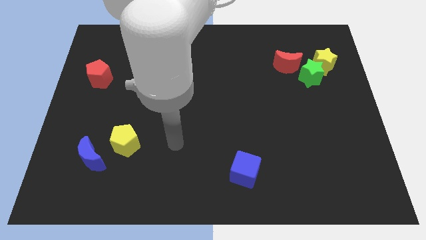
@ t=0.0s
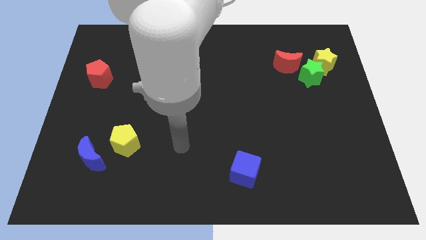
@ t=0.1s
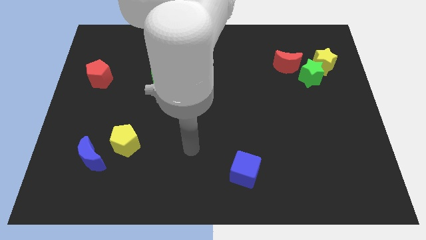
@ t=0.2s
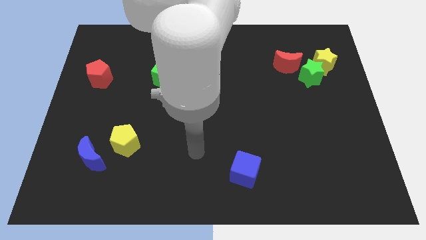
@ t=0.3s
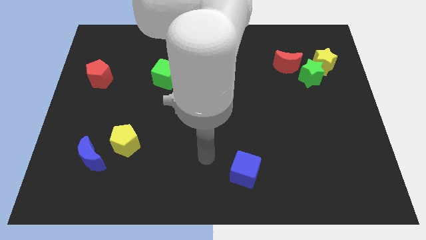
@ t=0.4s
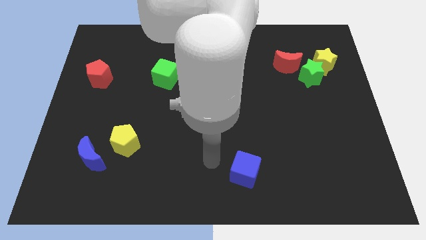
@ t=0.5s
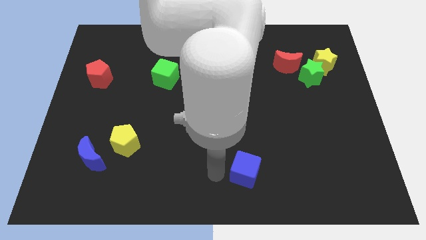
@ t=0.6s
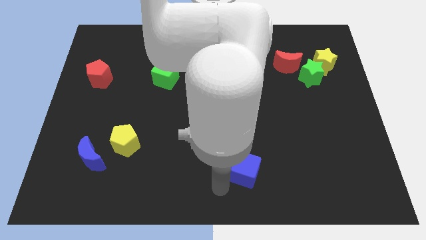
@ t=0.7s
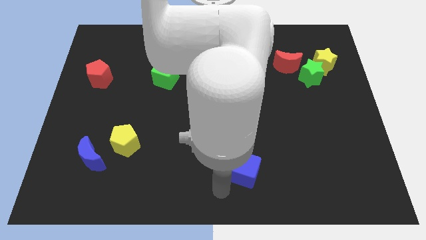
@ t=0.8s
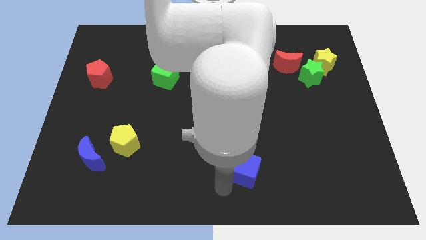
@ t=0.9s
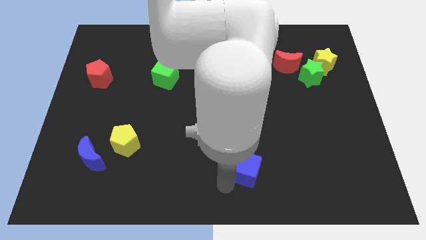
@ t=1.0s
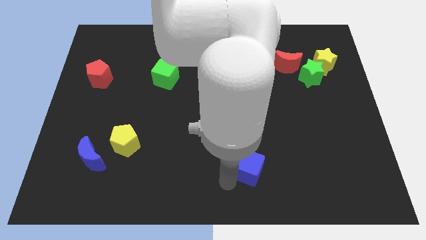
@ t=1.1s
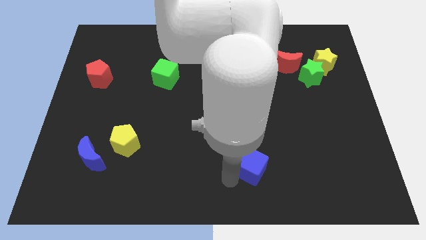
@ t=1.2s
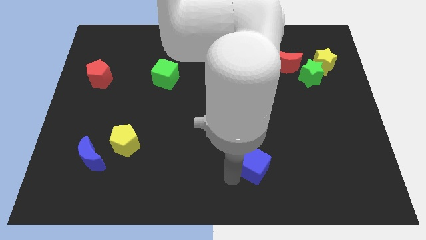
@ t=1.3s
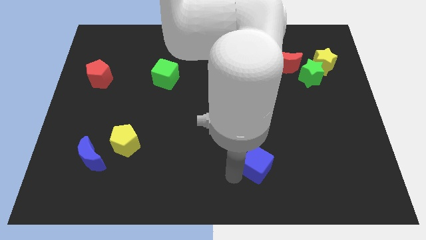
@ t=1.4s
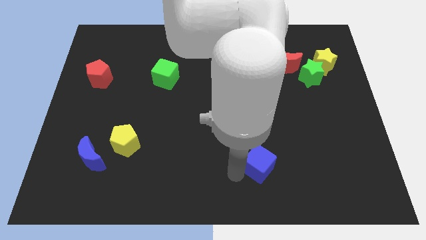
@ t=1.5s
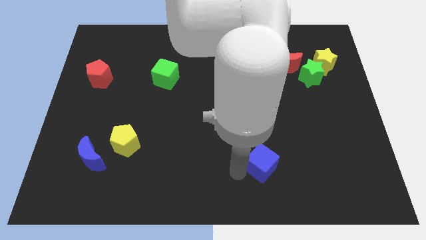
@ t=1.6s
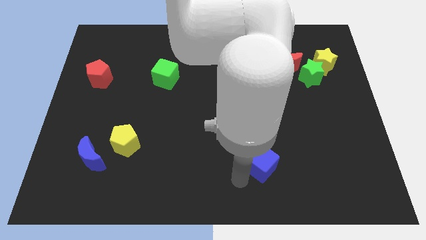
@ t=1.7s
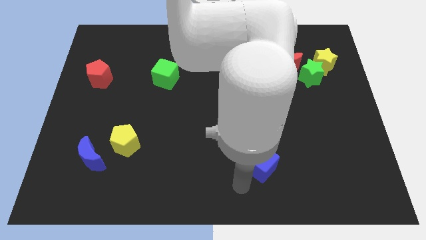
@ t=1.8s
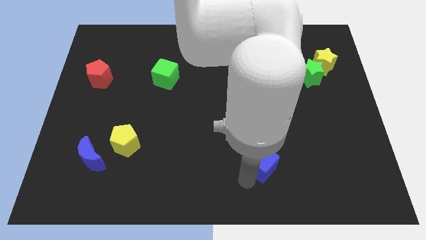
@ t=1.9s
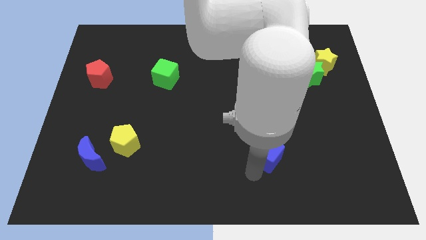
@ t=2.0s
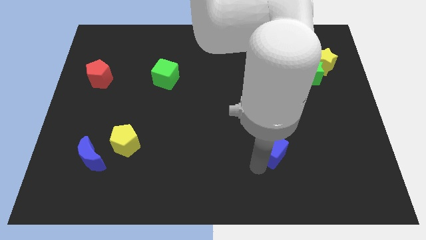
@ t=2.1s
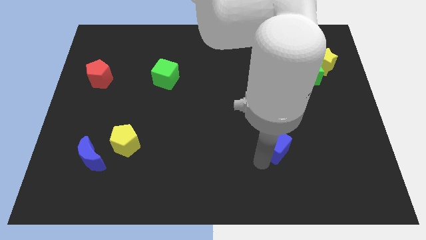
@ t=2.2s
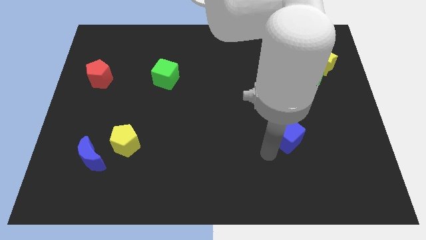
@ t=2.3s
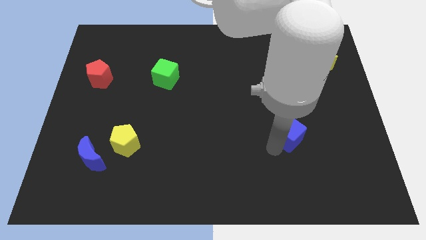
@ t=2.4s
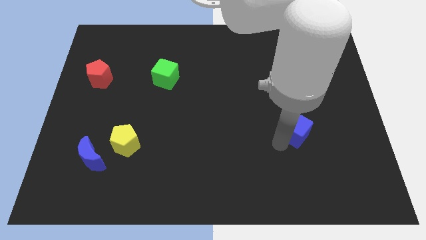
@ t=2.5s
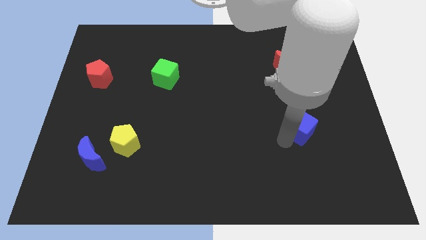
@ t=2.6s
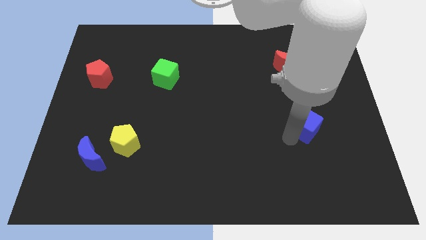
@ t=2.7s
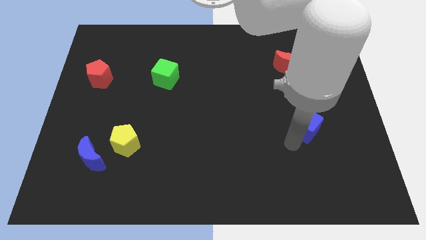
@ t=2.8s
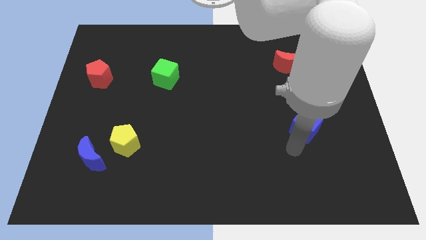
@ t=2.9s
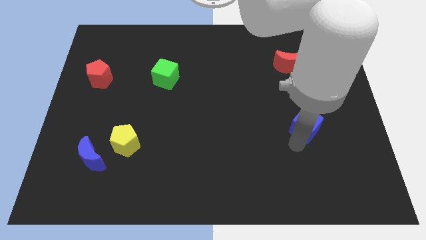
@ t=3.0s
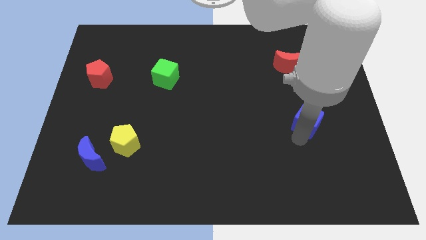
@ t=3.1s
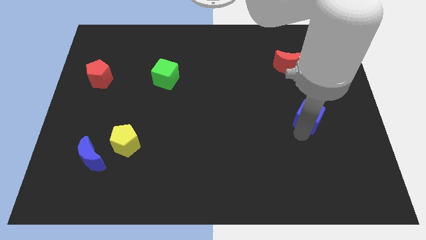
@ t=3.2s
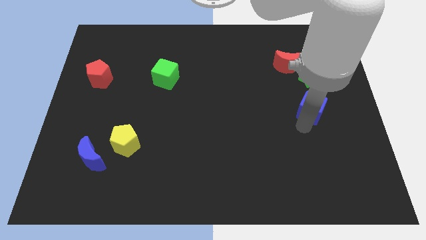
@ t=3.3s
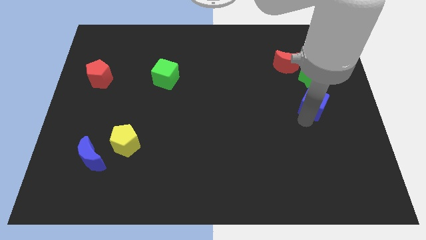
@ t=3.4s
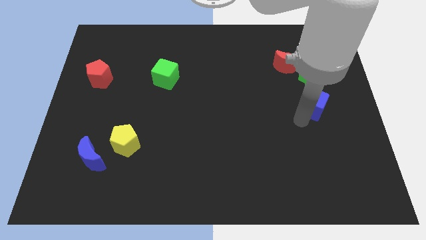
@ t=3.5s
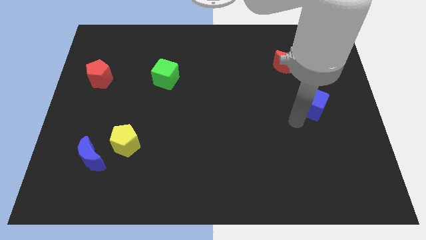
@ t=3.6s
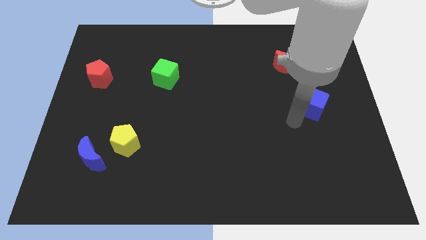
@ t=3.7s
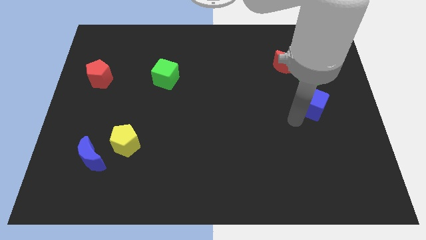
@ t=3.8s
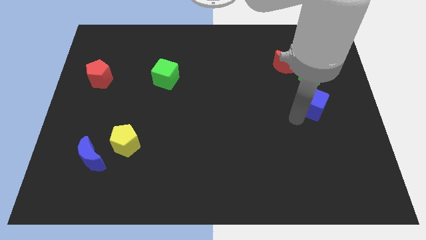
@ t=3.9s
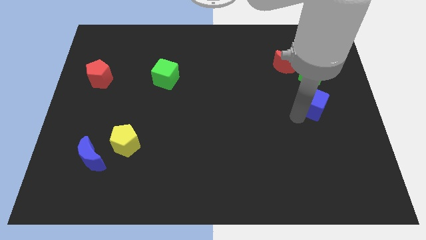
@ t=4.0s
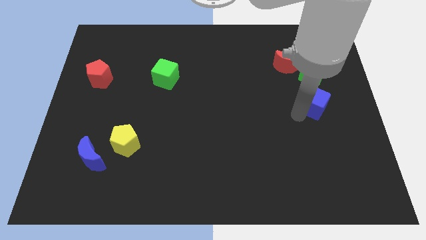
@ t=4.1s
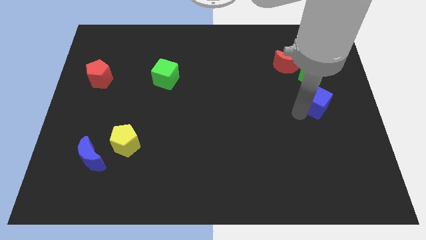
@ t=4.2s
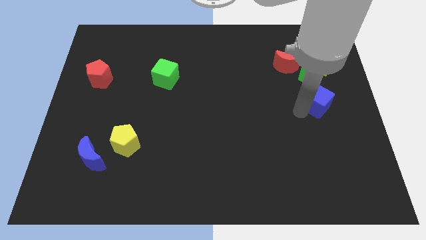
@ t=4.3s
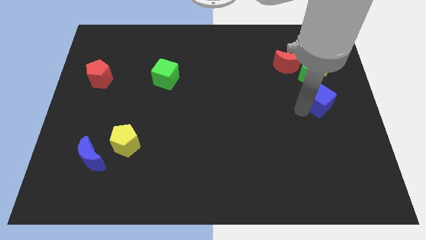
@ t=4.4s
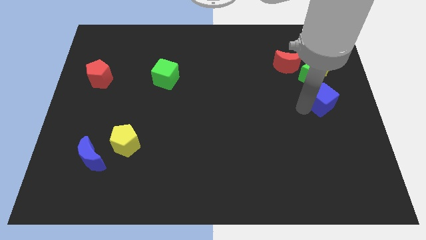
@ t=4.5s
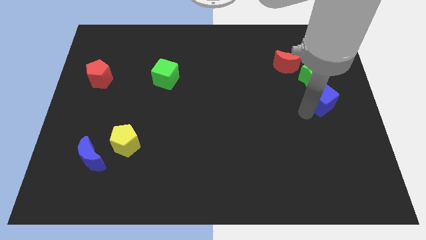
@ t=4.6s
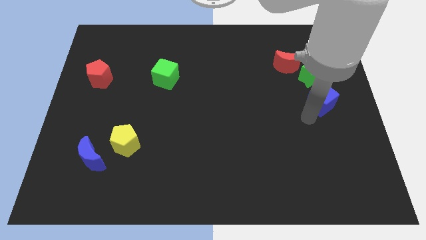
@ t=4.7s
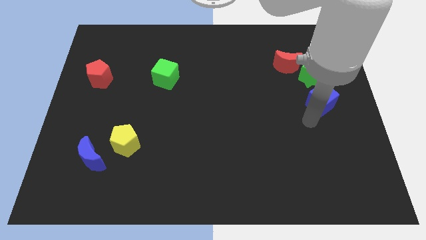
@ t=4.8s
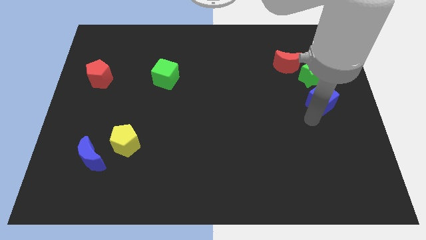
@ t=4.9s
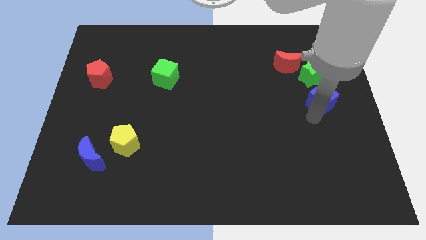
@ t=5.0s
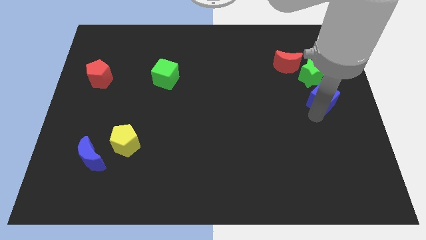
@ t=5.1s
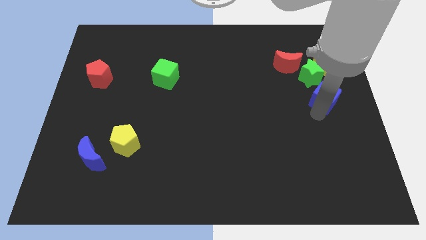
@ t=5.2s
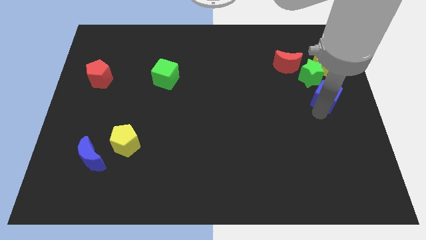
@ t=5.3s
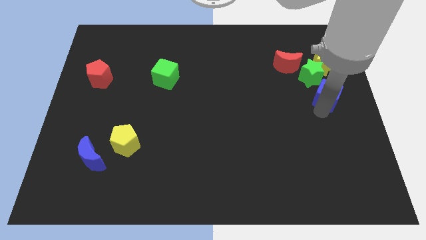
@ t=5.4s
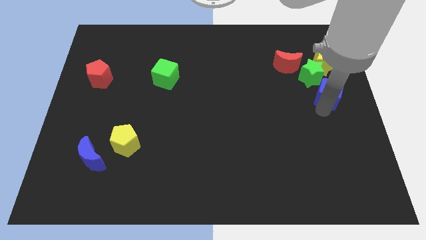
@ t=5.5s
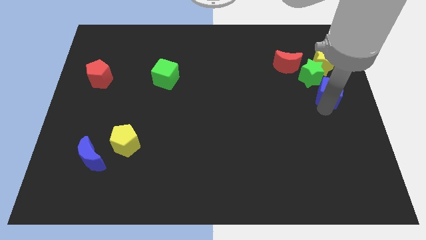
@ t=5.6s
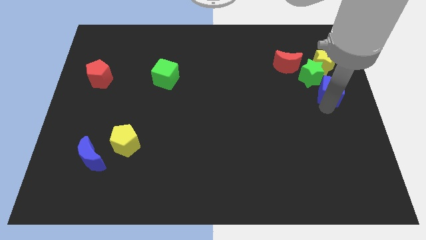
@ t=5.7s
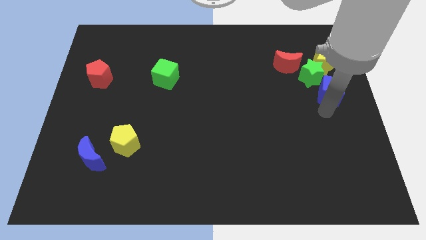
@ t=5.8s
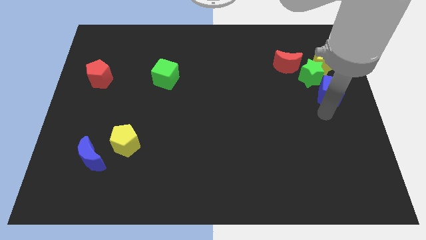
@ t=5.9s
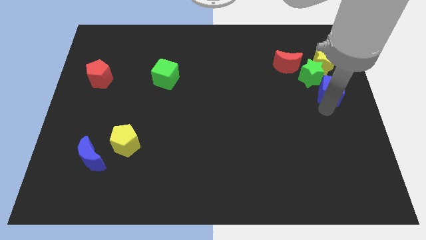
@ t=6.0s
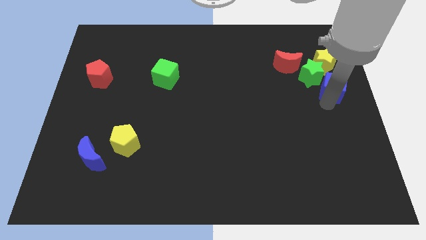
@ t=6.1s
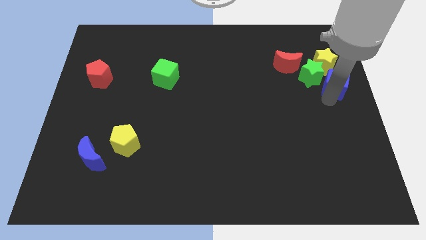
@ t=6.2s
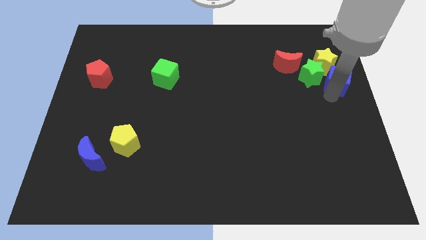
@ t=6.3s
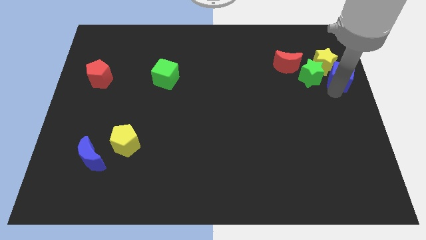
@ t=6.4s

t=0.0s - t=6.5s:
push the blue cube next to the yellow star

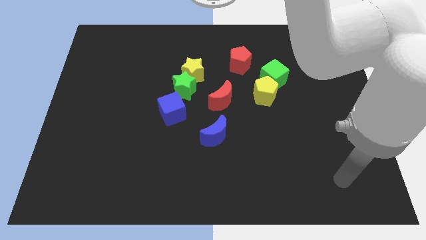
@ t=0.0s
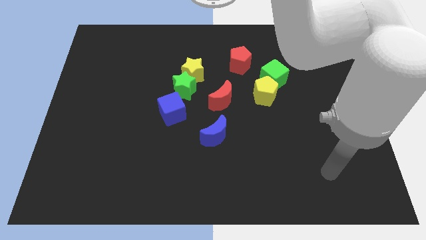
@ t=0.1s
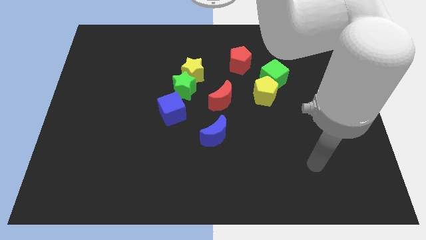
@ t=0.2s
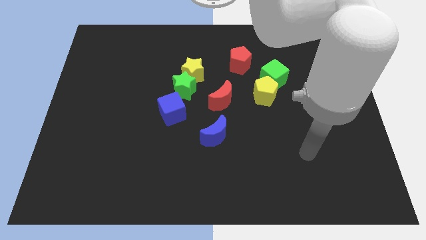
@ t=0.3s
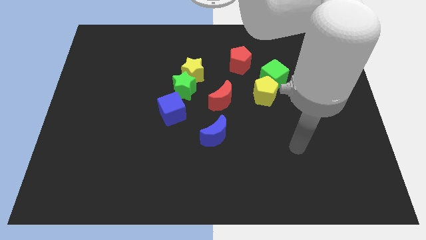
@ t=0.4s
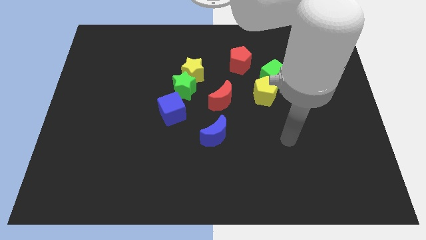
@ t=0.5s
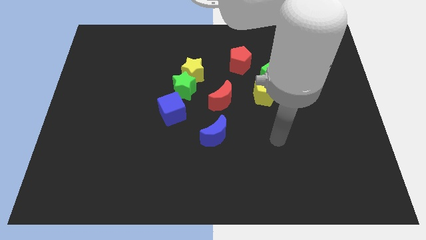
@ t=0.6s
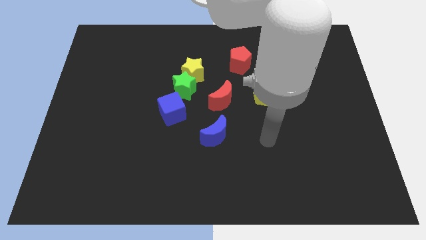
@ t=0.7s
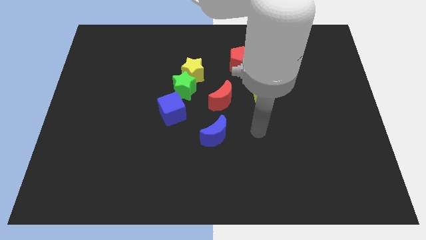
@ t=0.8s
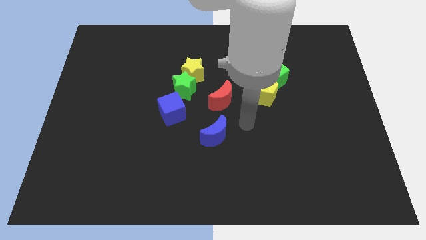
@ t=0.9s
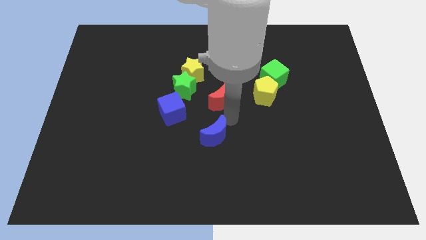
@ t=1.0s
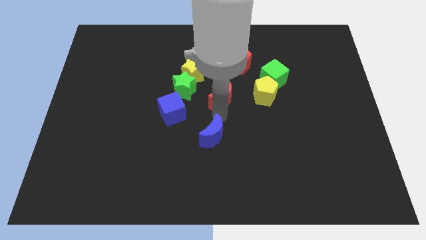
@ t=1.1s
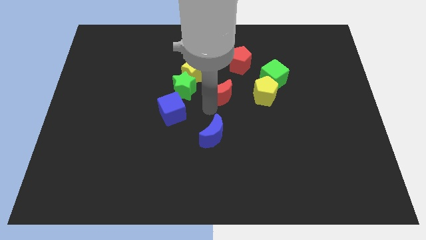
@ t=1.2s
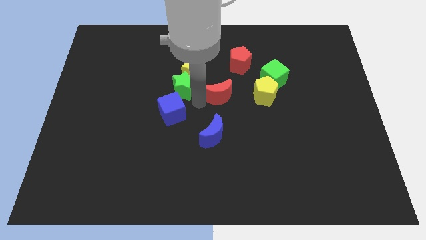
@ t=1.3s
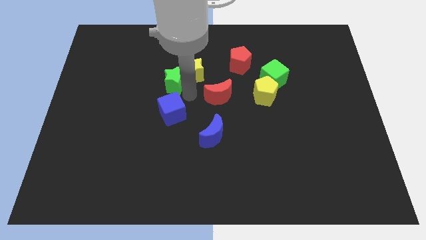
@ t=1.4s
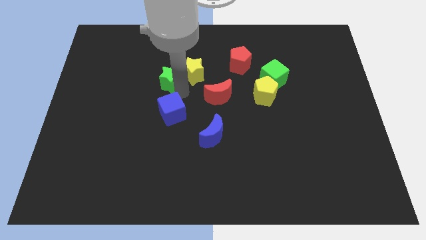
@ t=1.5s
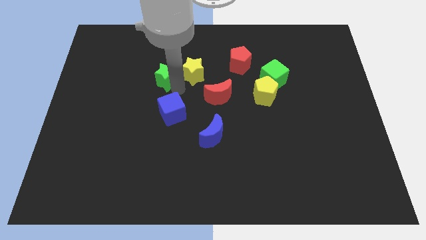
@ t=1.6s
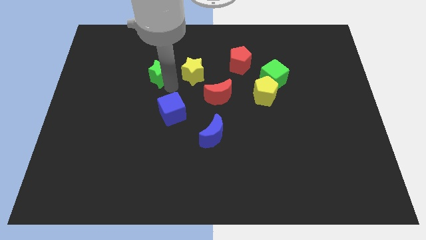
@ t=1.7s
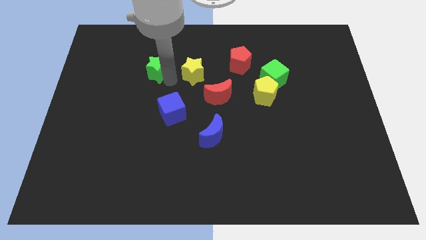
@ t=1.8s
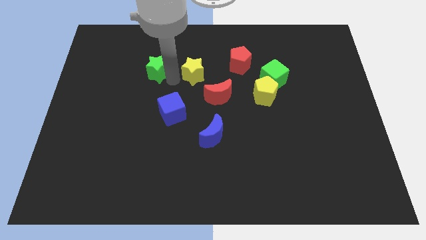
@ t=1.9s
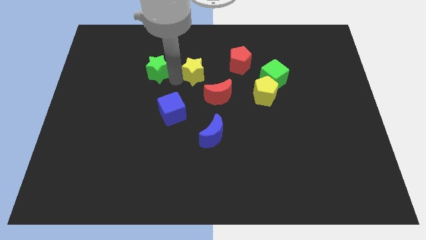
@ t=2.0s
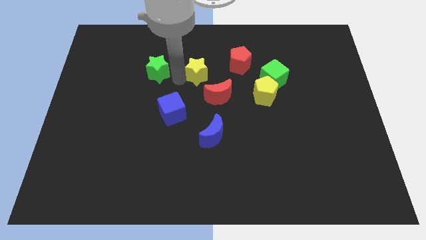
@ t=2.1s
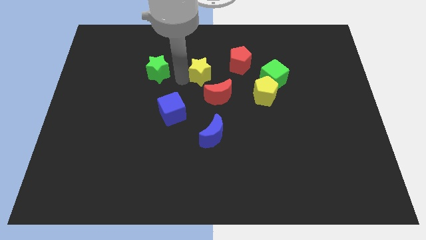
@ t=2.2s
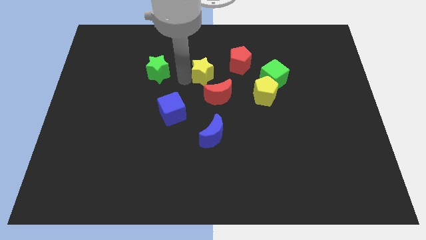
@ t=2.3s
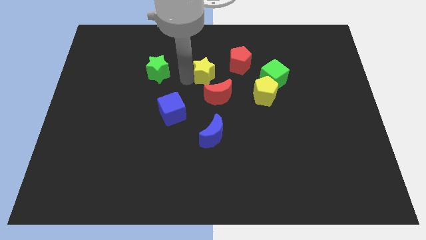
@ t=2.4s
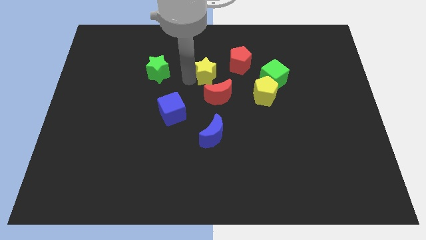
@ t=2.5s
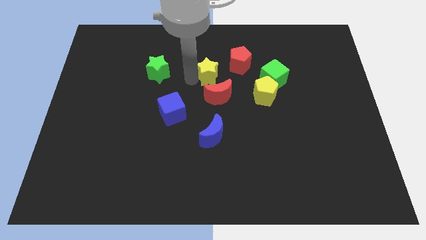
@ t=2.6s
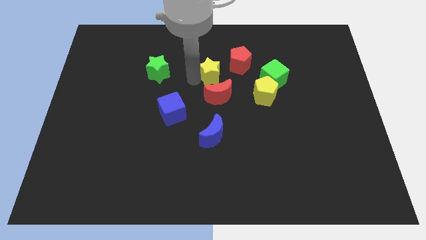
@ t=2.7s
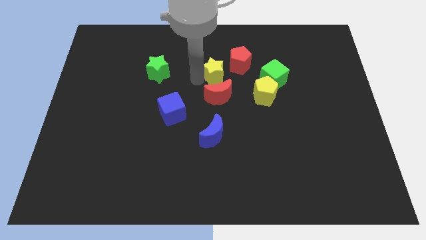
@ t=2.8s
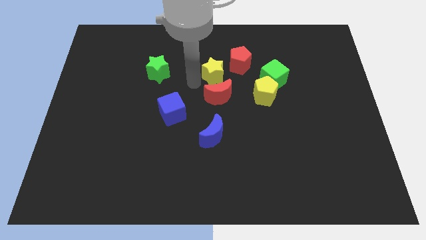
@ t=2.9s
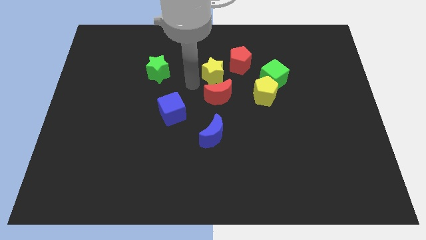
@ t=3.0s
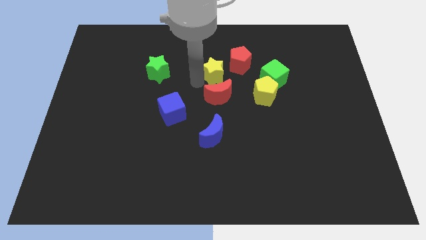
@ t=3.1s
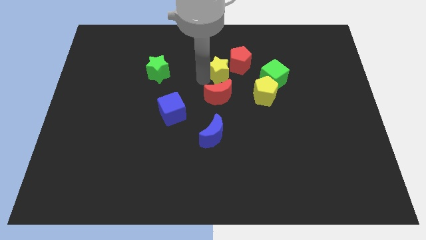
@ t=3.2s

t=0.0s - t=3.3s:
push the yellow star to the red pentagon
